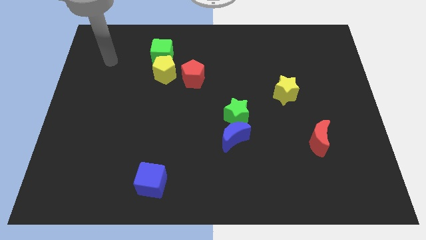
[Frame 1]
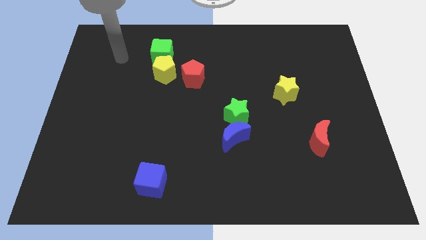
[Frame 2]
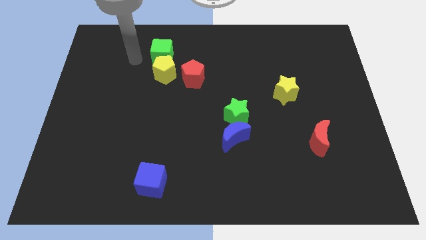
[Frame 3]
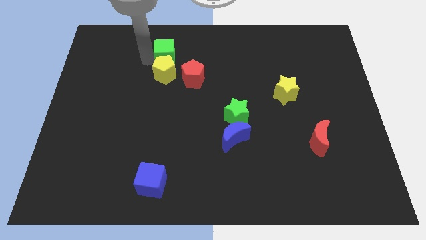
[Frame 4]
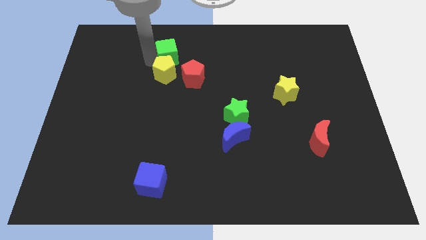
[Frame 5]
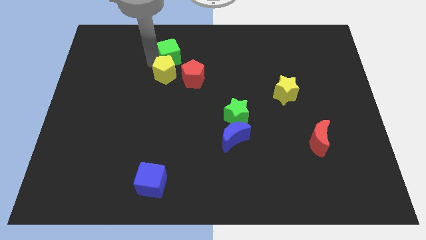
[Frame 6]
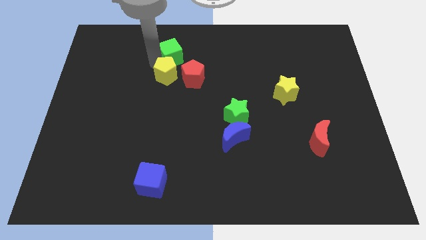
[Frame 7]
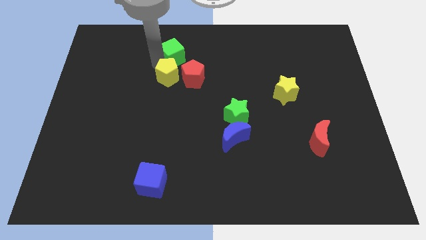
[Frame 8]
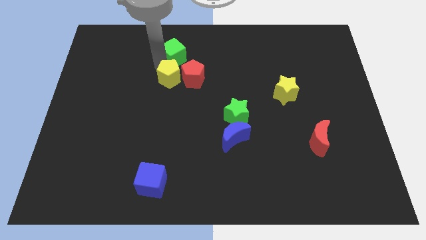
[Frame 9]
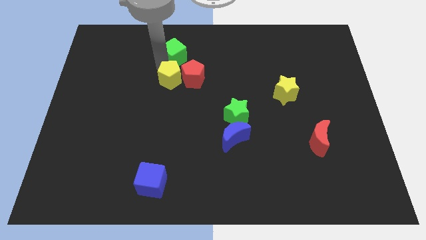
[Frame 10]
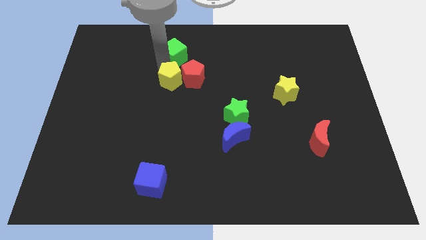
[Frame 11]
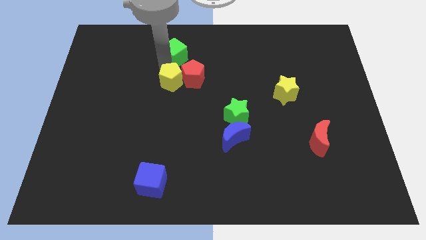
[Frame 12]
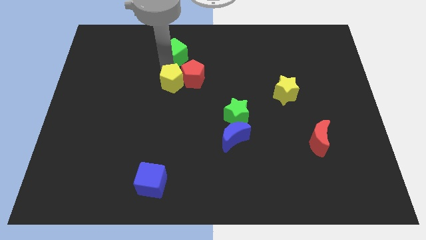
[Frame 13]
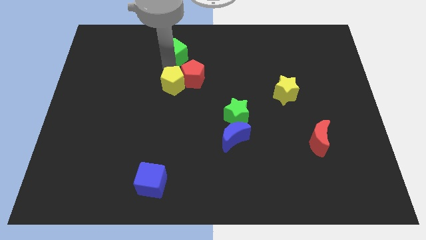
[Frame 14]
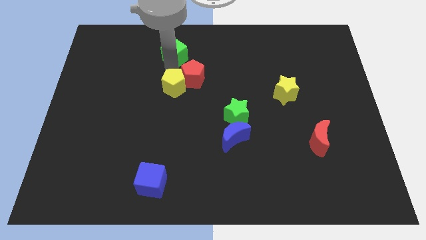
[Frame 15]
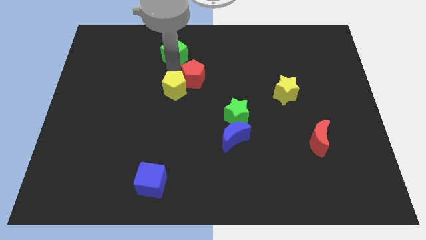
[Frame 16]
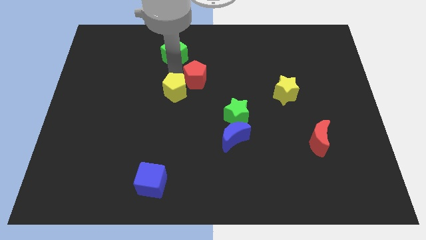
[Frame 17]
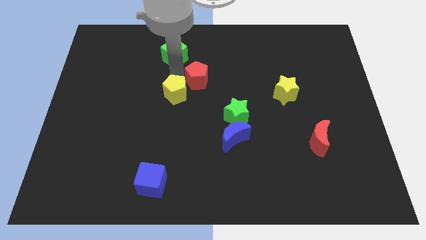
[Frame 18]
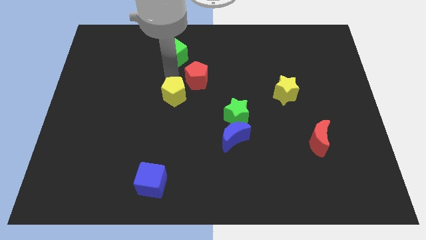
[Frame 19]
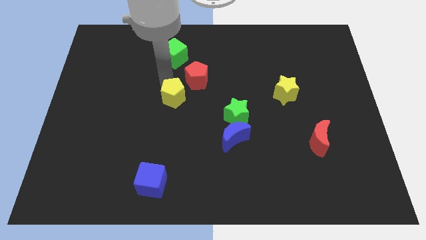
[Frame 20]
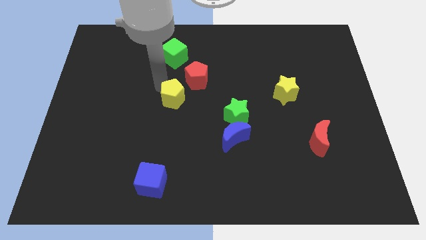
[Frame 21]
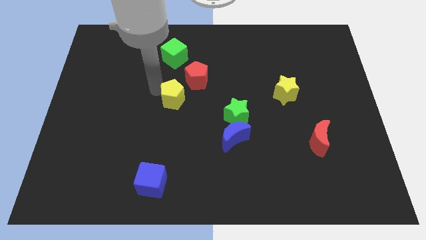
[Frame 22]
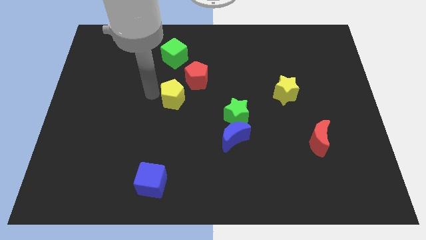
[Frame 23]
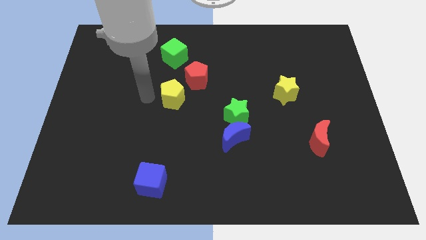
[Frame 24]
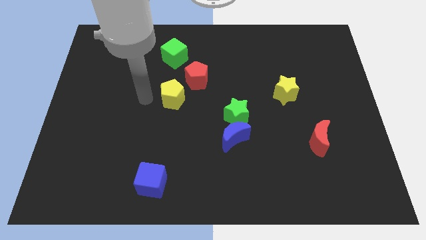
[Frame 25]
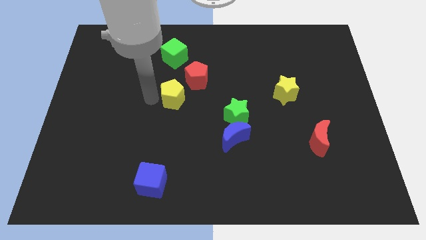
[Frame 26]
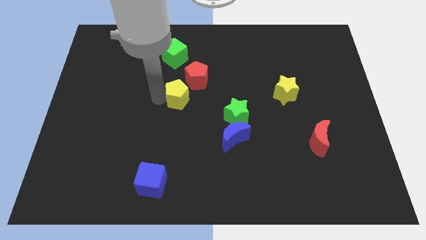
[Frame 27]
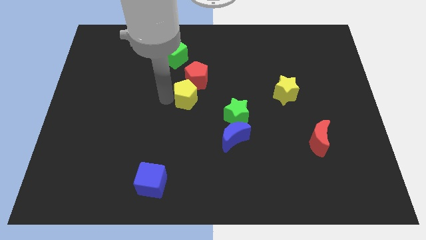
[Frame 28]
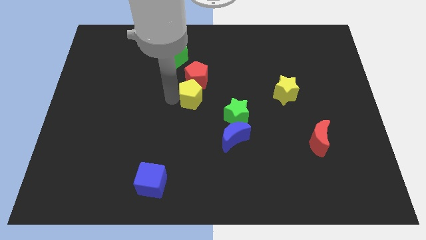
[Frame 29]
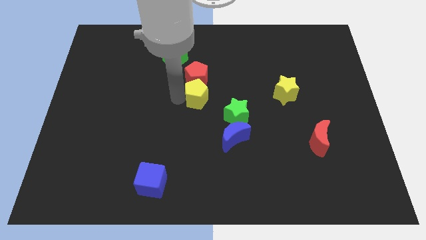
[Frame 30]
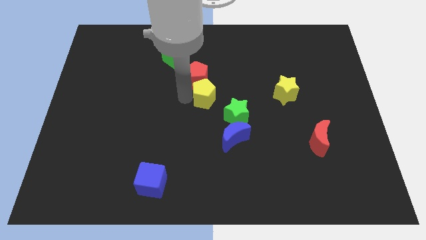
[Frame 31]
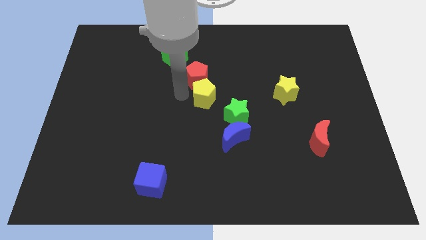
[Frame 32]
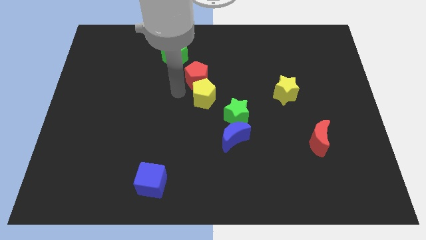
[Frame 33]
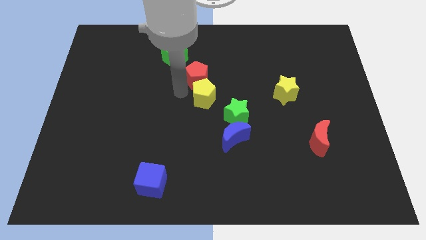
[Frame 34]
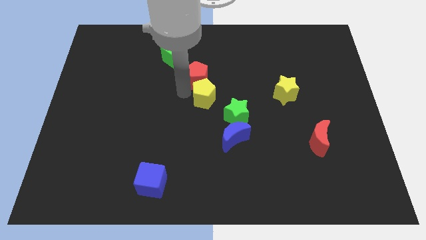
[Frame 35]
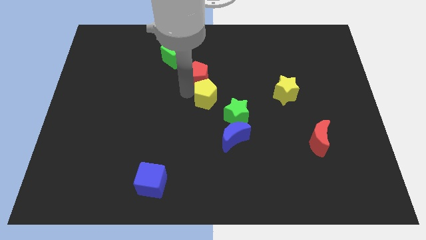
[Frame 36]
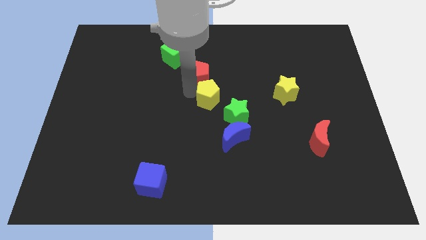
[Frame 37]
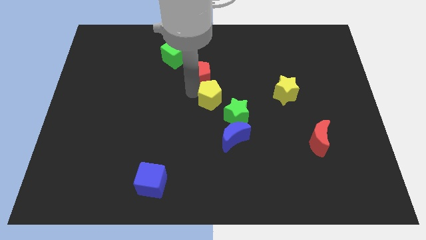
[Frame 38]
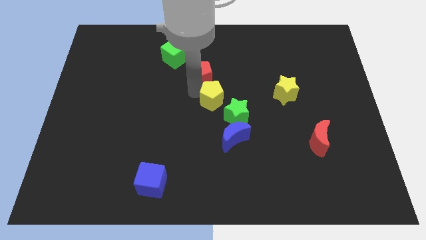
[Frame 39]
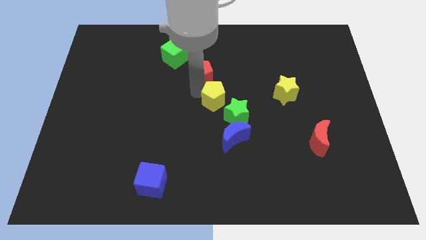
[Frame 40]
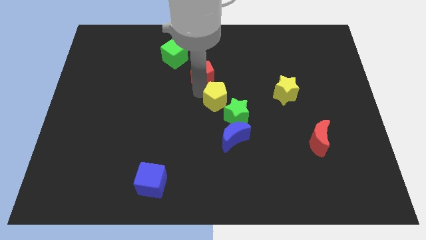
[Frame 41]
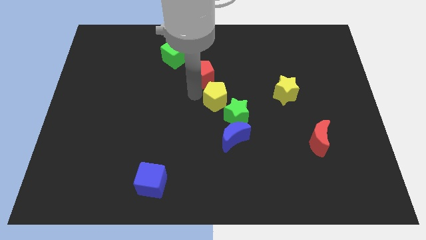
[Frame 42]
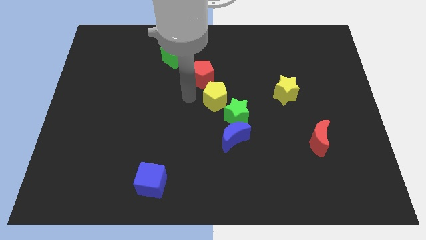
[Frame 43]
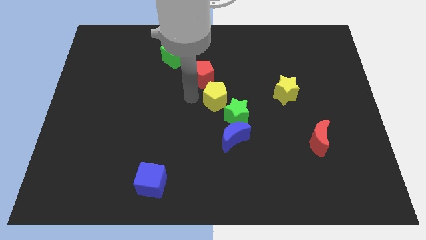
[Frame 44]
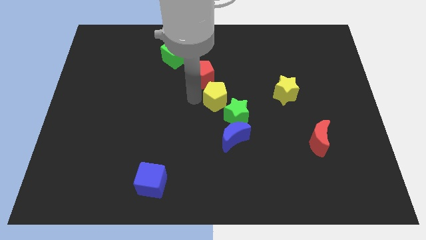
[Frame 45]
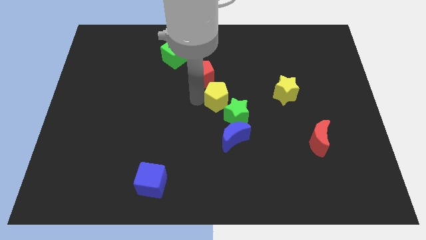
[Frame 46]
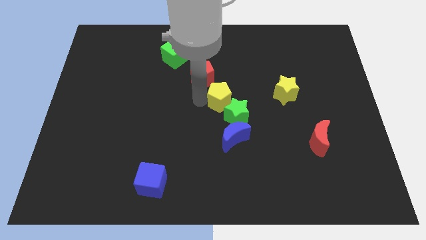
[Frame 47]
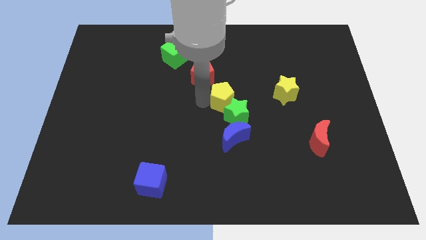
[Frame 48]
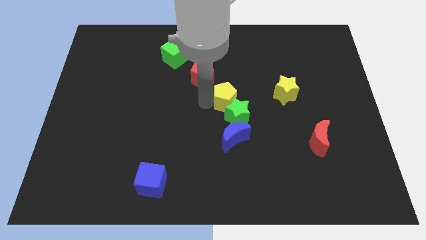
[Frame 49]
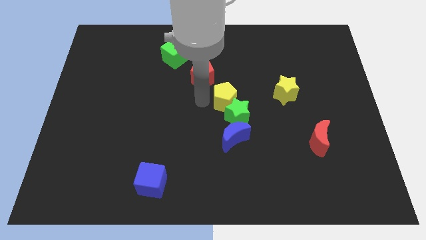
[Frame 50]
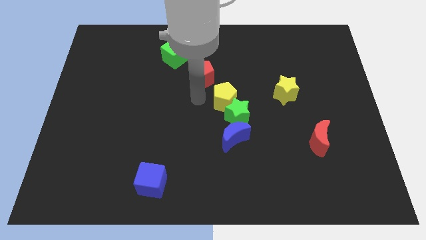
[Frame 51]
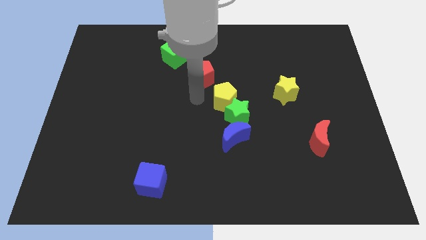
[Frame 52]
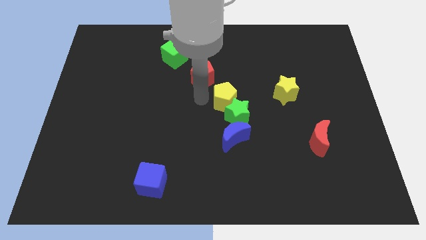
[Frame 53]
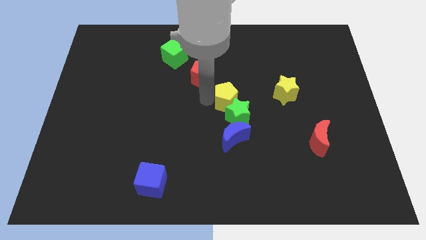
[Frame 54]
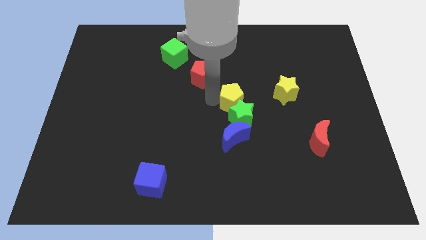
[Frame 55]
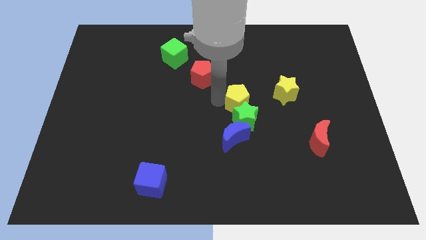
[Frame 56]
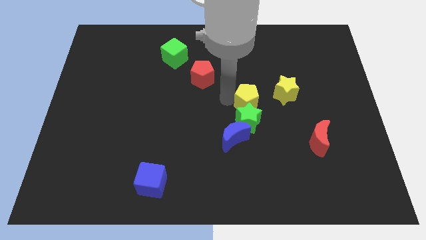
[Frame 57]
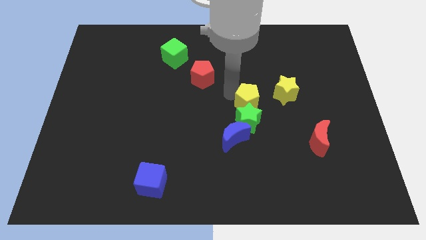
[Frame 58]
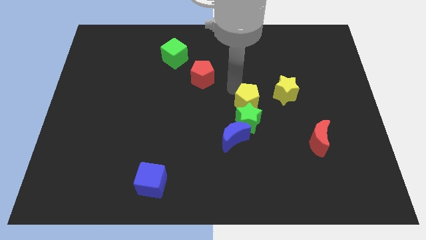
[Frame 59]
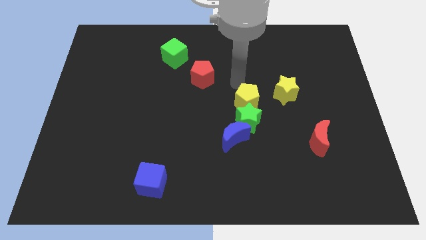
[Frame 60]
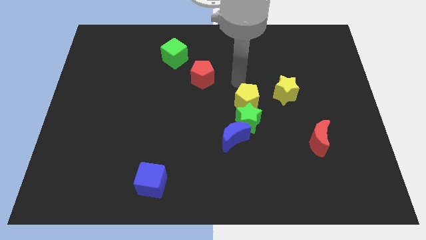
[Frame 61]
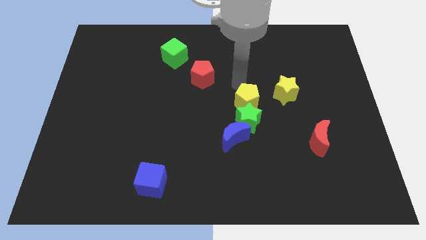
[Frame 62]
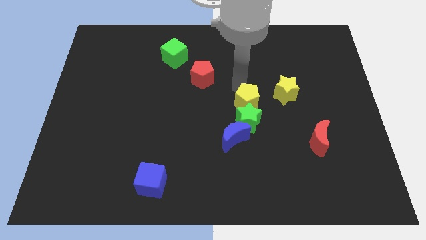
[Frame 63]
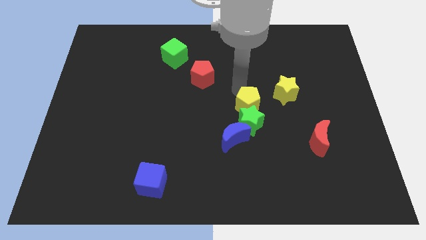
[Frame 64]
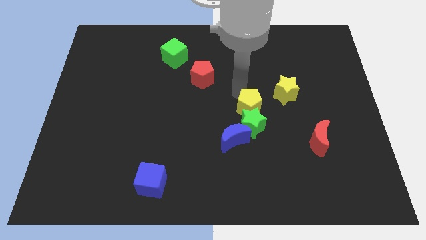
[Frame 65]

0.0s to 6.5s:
move the yellow pentagon down and right diagonally

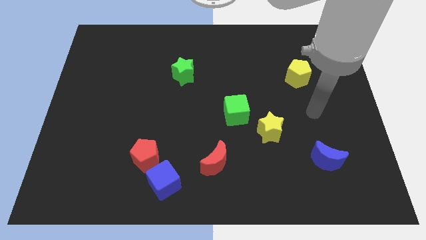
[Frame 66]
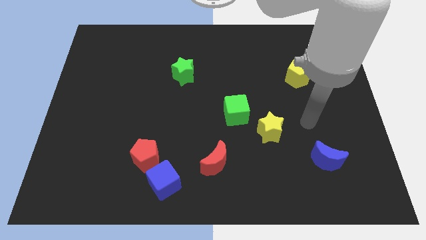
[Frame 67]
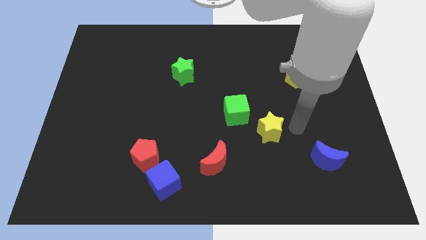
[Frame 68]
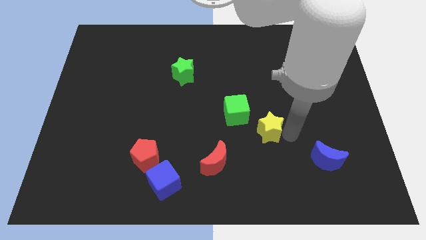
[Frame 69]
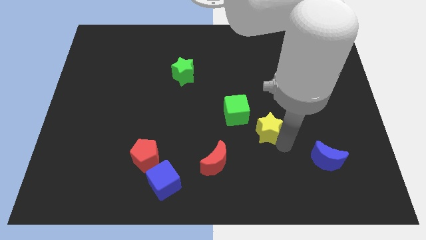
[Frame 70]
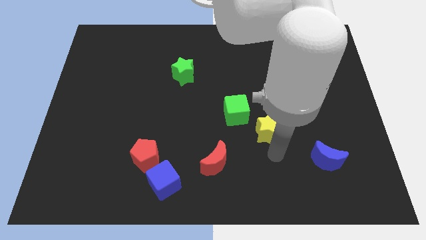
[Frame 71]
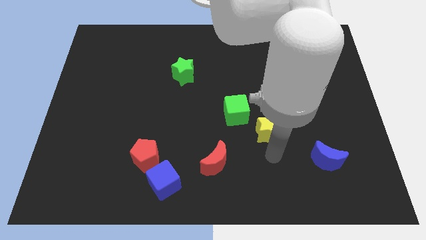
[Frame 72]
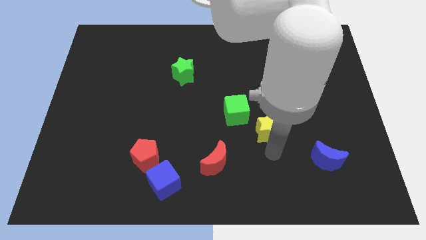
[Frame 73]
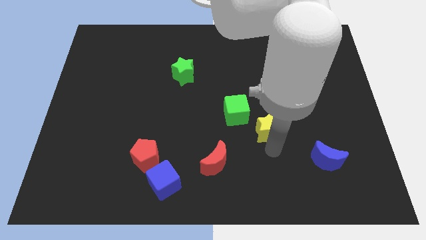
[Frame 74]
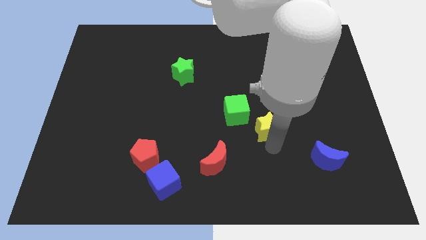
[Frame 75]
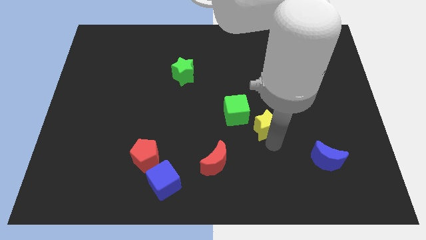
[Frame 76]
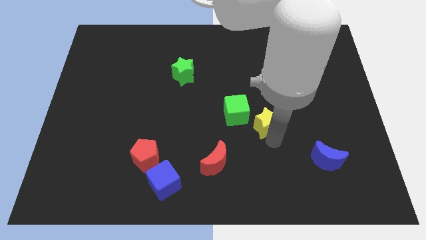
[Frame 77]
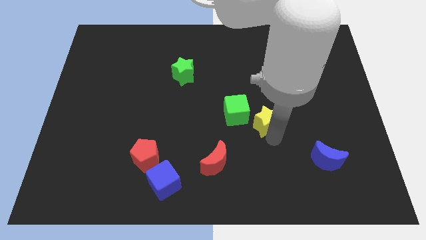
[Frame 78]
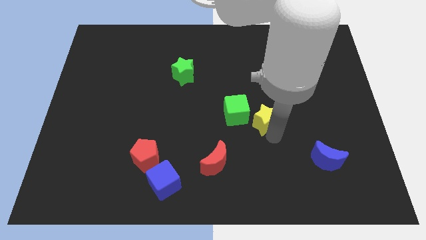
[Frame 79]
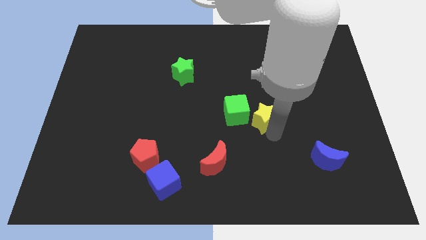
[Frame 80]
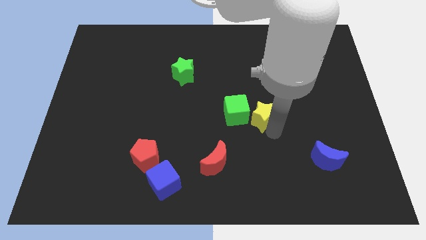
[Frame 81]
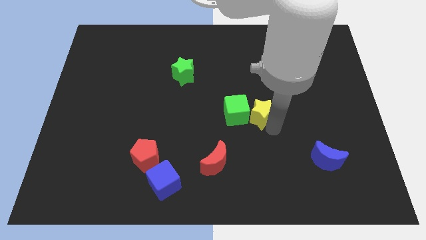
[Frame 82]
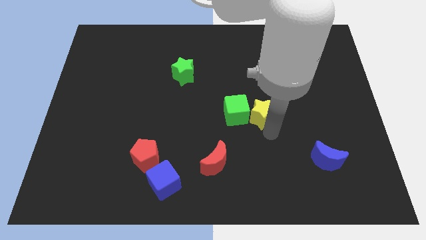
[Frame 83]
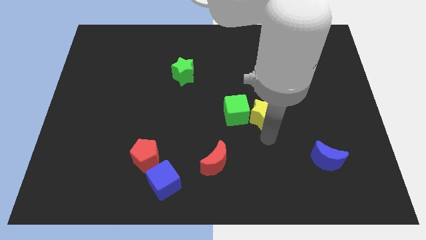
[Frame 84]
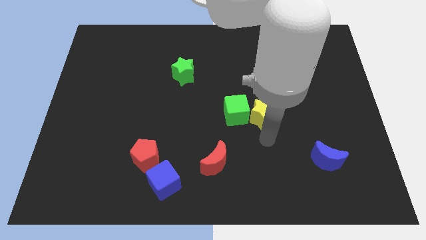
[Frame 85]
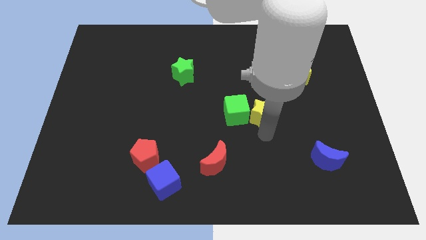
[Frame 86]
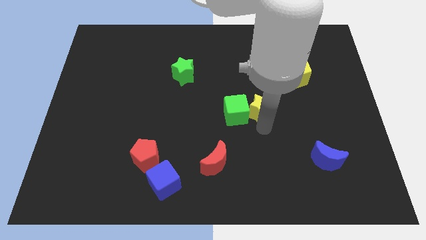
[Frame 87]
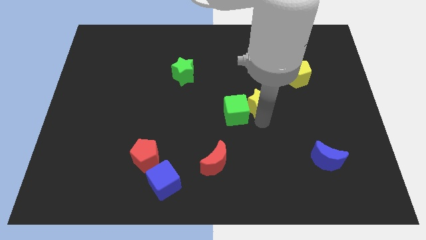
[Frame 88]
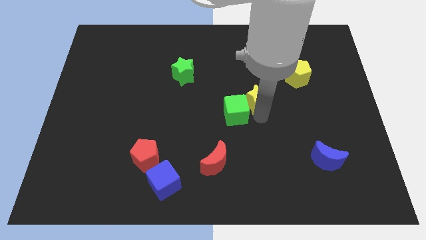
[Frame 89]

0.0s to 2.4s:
slide the yellow star somewhat upwards and to the left diagonally
